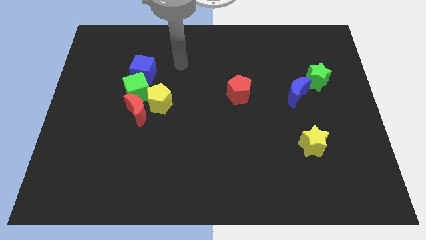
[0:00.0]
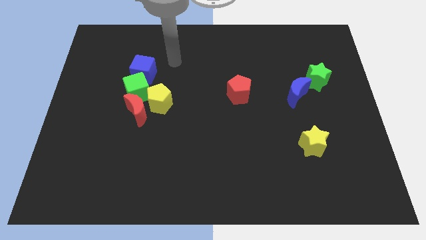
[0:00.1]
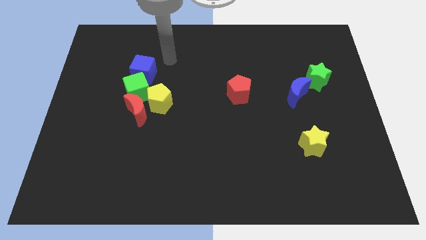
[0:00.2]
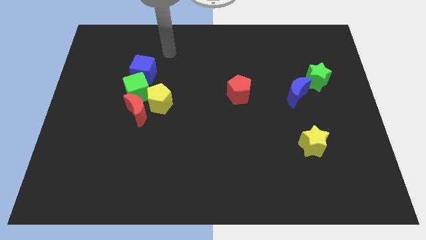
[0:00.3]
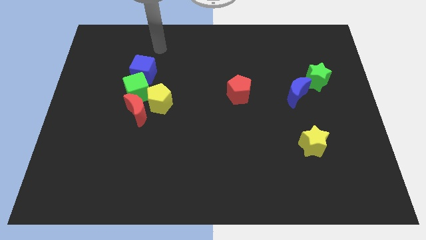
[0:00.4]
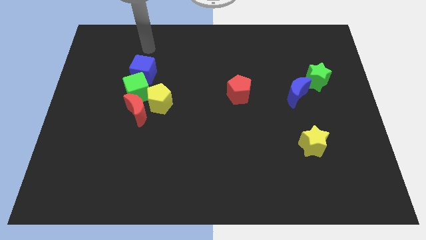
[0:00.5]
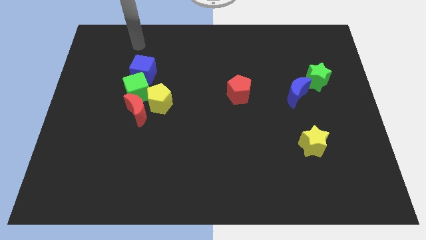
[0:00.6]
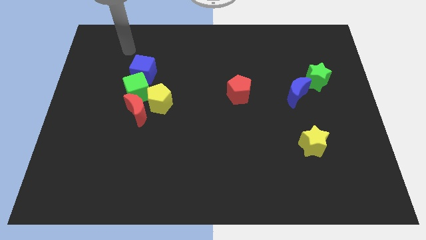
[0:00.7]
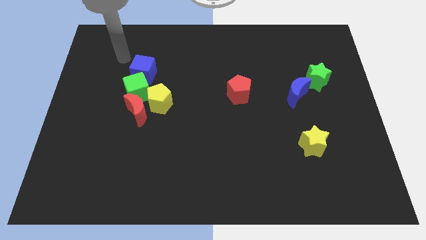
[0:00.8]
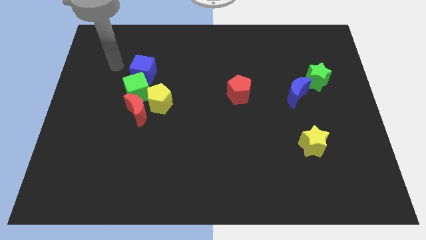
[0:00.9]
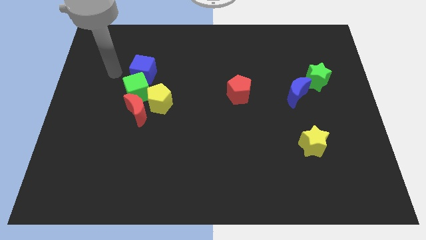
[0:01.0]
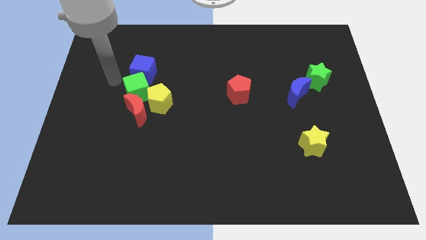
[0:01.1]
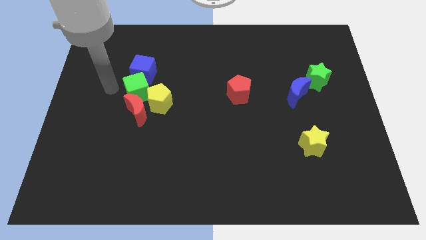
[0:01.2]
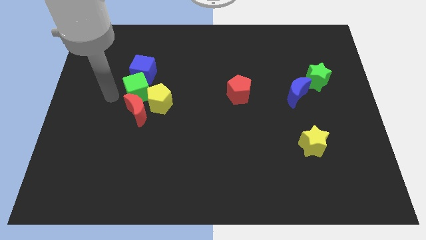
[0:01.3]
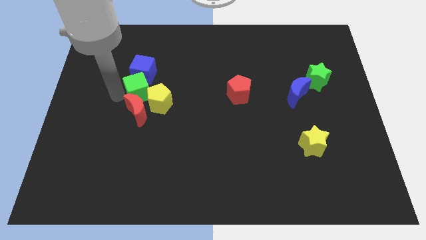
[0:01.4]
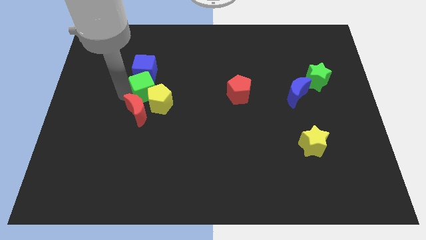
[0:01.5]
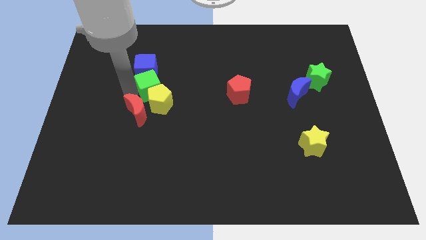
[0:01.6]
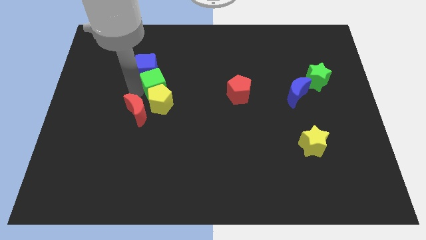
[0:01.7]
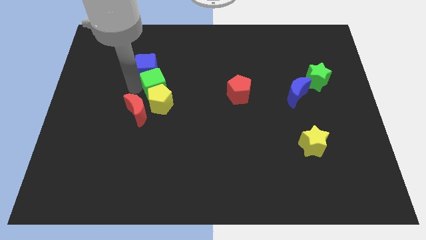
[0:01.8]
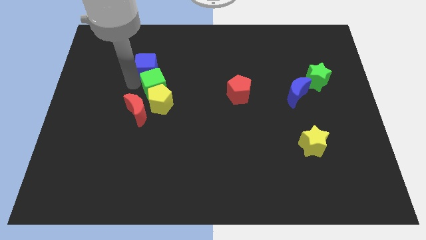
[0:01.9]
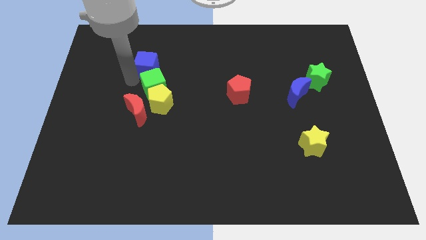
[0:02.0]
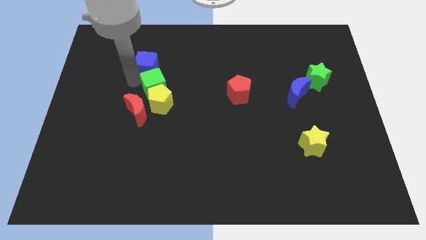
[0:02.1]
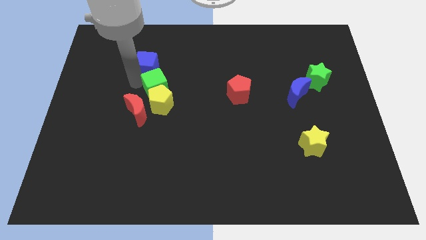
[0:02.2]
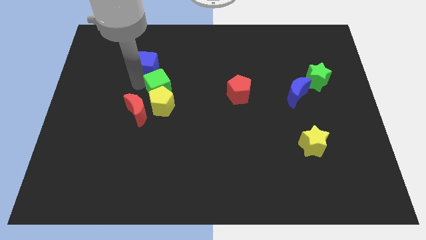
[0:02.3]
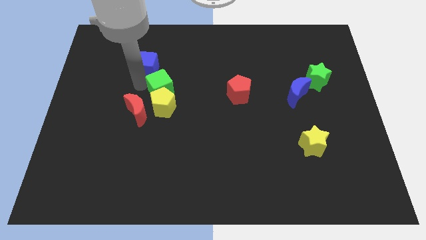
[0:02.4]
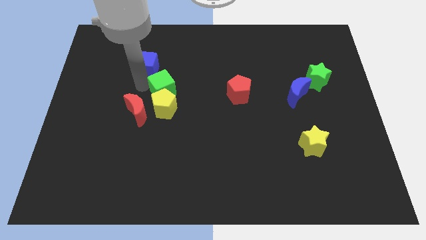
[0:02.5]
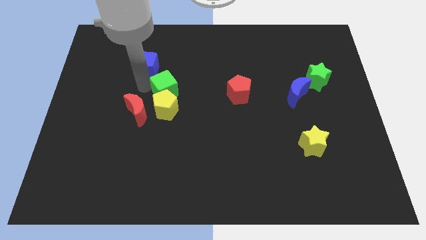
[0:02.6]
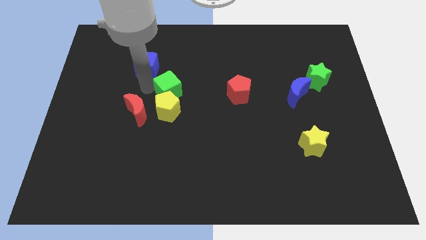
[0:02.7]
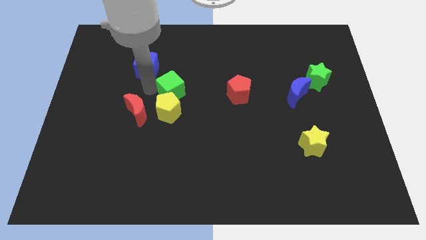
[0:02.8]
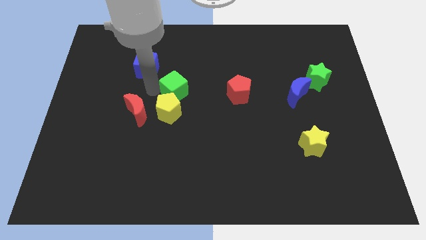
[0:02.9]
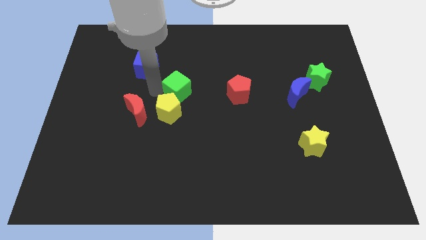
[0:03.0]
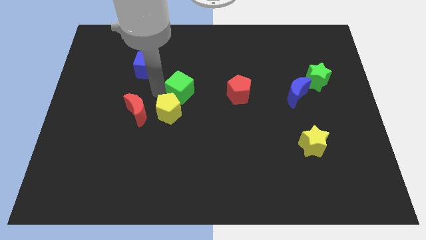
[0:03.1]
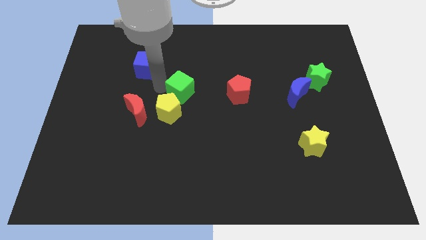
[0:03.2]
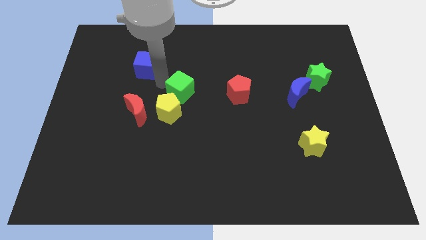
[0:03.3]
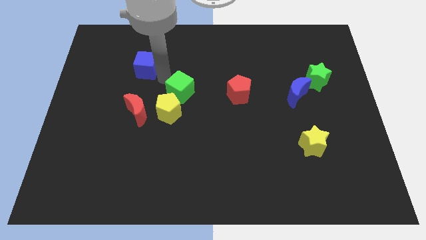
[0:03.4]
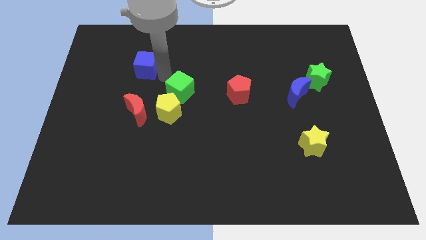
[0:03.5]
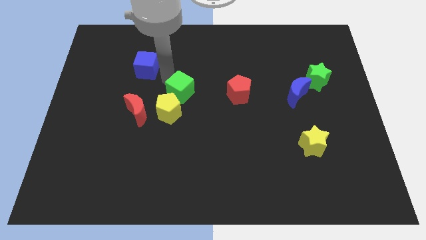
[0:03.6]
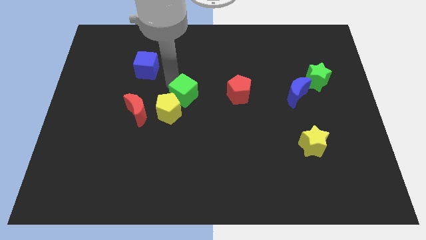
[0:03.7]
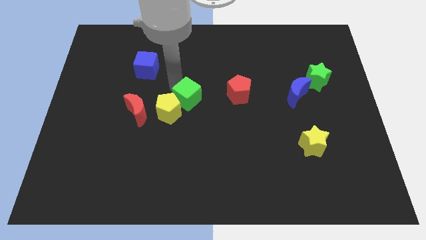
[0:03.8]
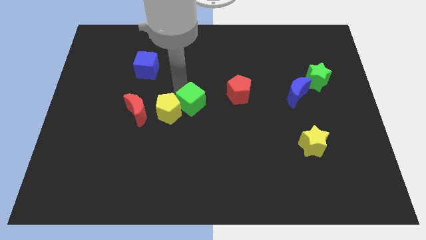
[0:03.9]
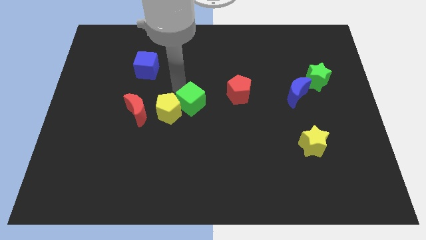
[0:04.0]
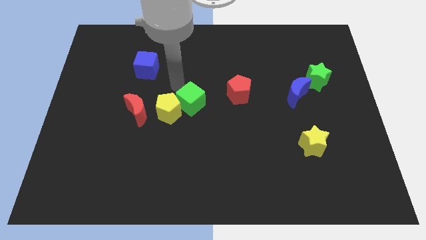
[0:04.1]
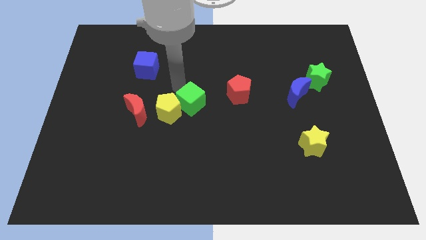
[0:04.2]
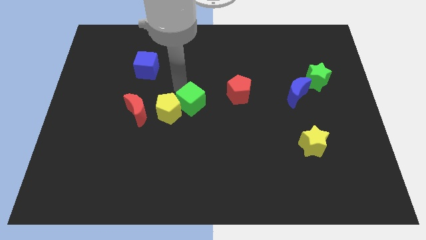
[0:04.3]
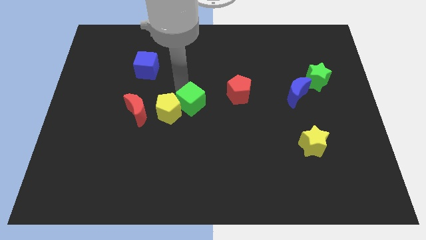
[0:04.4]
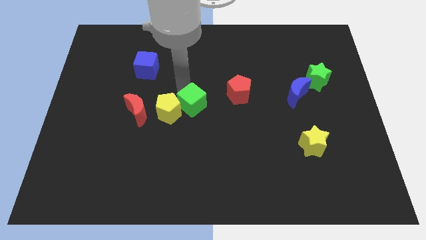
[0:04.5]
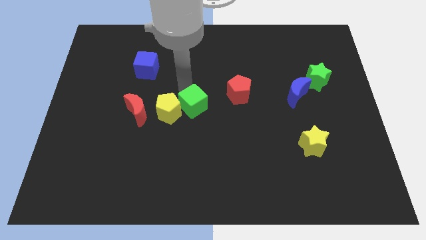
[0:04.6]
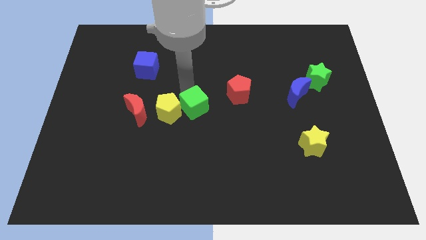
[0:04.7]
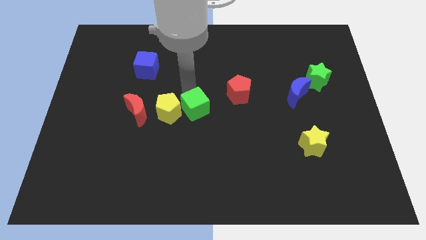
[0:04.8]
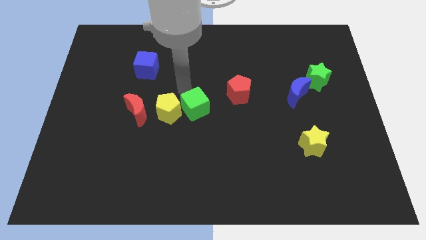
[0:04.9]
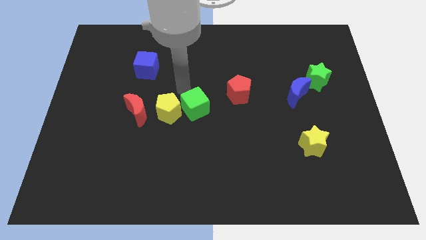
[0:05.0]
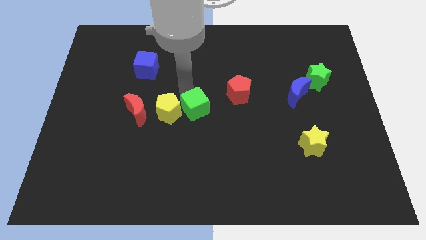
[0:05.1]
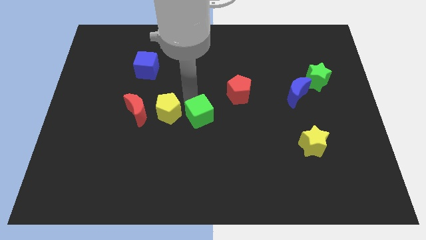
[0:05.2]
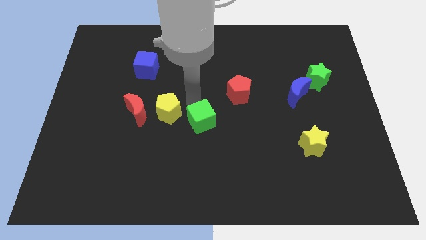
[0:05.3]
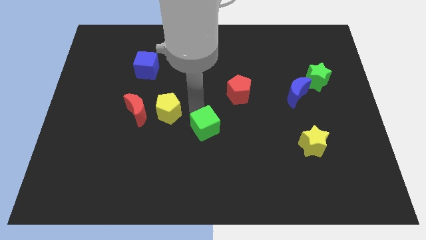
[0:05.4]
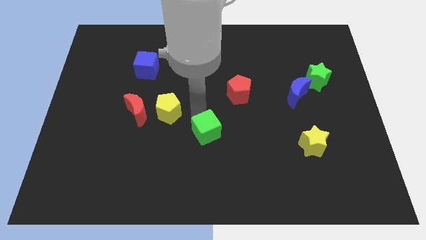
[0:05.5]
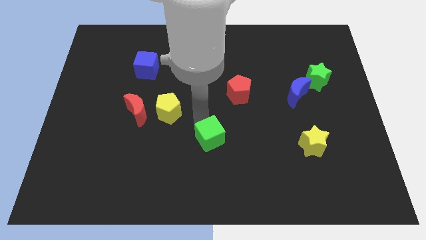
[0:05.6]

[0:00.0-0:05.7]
move the green cube downwards and right diagonally

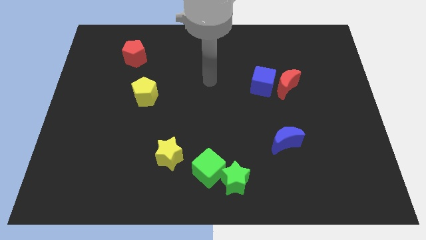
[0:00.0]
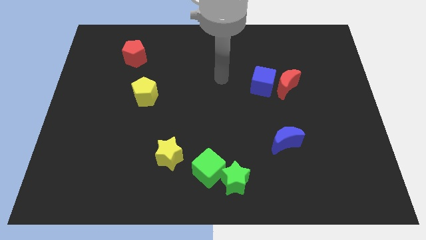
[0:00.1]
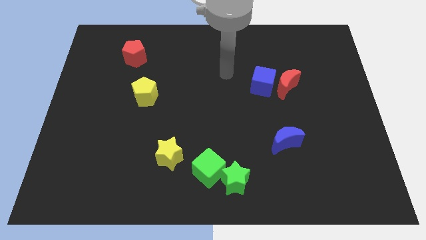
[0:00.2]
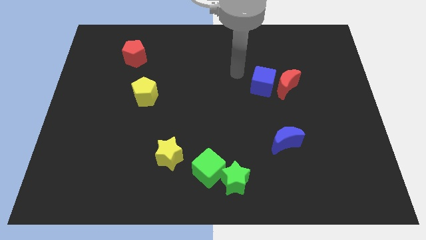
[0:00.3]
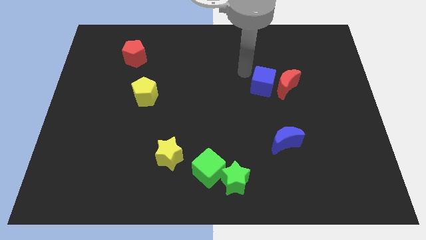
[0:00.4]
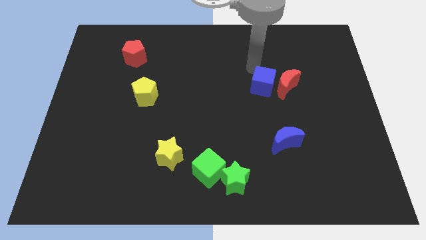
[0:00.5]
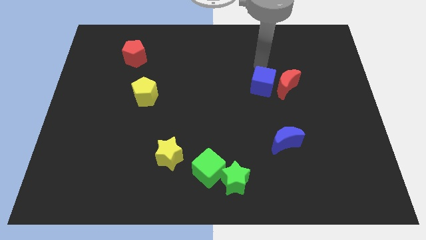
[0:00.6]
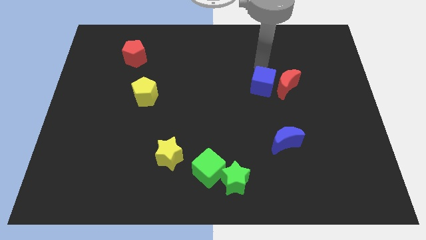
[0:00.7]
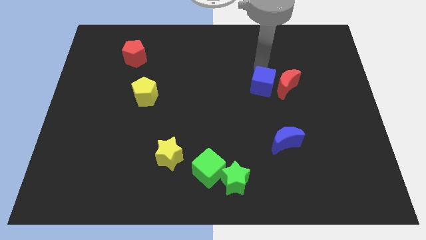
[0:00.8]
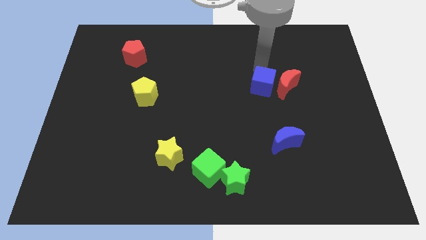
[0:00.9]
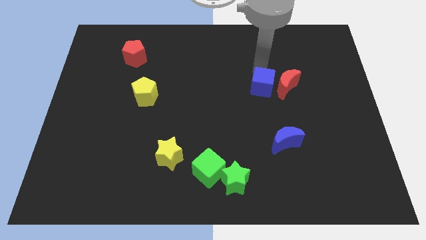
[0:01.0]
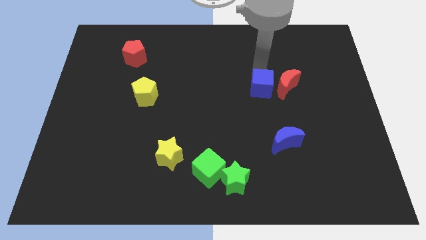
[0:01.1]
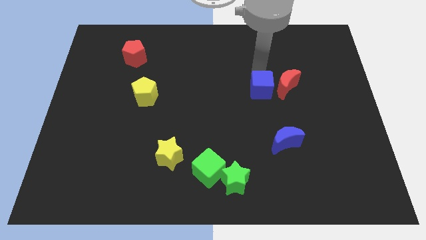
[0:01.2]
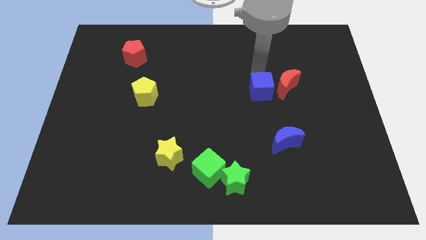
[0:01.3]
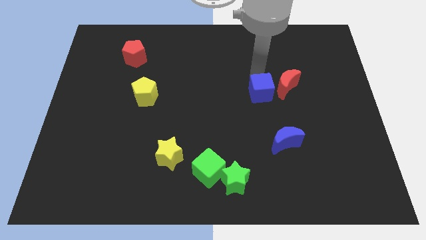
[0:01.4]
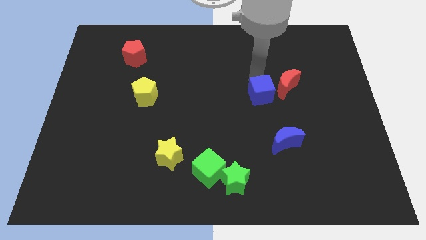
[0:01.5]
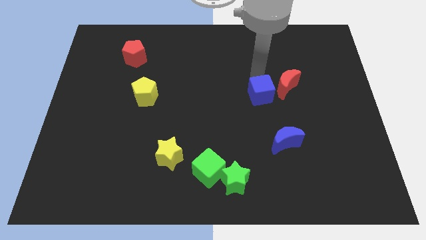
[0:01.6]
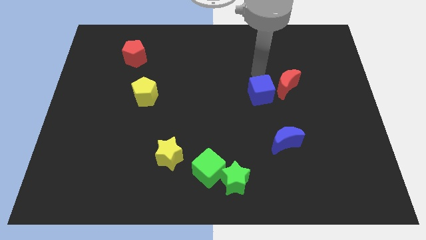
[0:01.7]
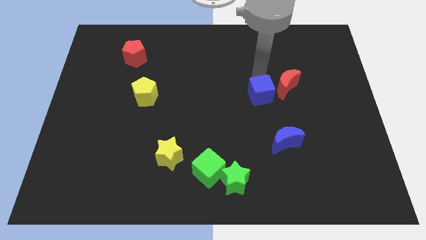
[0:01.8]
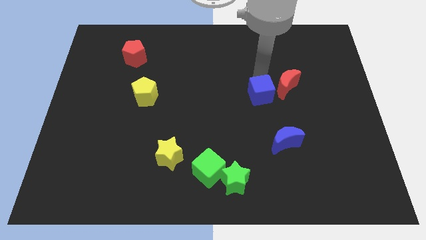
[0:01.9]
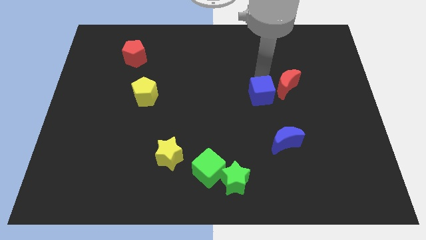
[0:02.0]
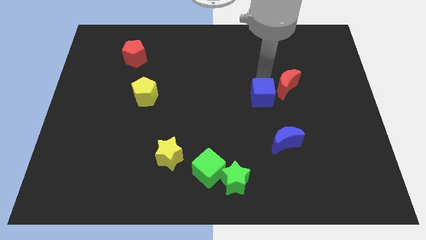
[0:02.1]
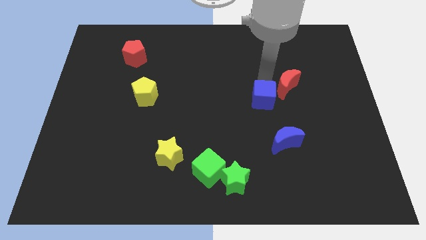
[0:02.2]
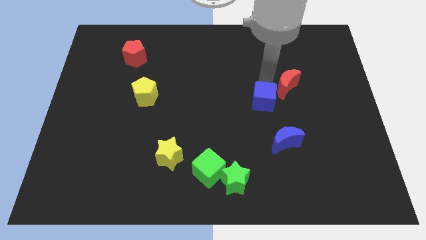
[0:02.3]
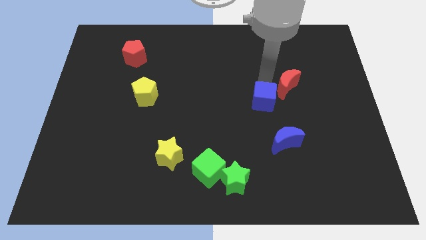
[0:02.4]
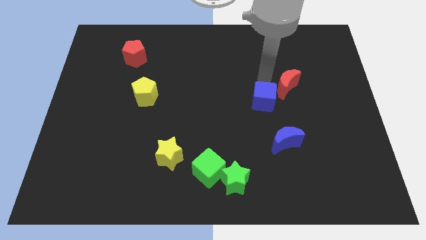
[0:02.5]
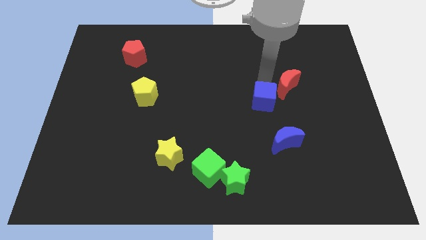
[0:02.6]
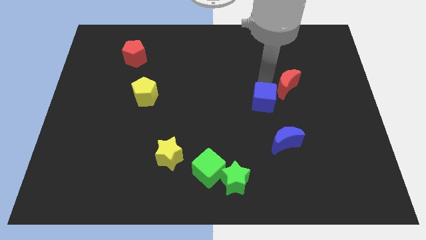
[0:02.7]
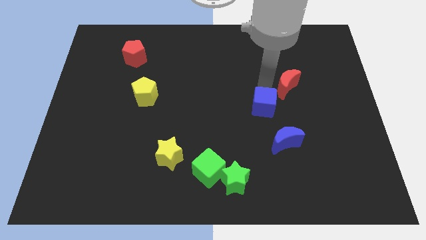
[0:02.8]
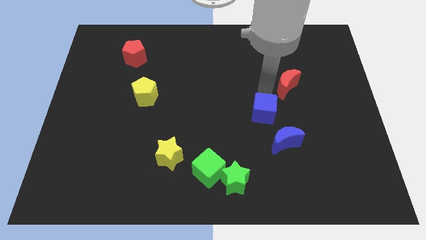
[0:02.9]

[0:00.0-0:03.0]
slide the blue cube downwards somewhat
